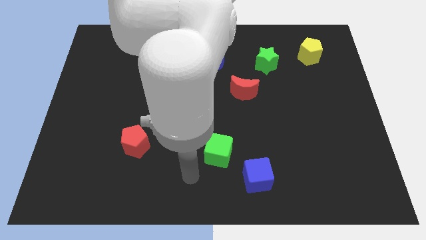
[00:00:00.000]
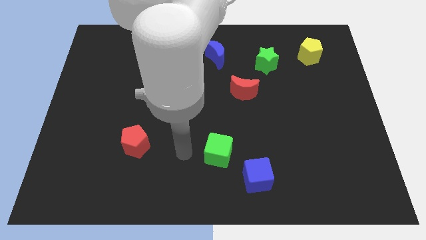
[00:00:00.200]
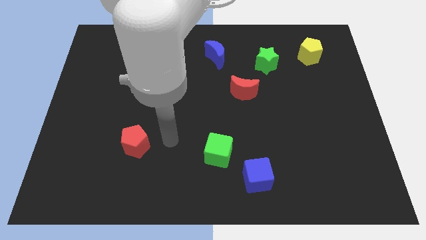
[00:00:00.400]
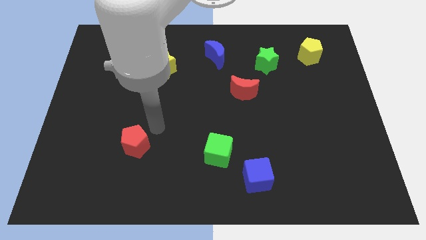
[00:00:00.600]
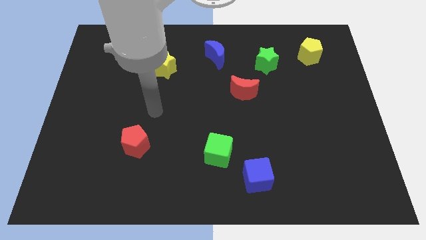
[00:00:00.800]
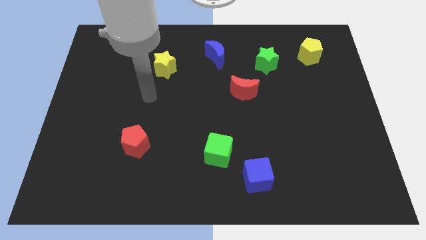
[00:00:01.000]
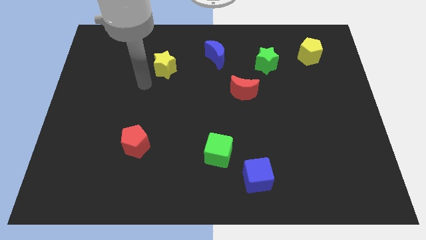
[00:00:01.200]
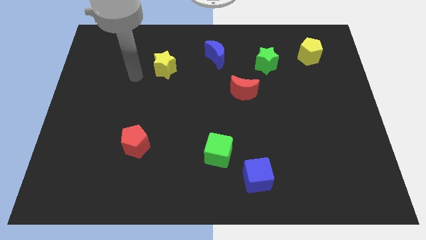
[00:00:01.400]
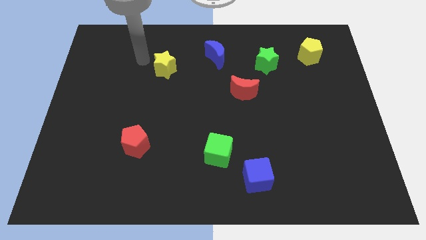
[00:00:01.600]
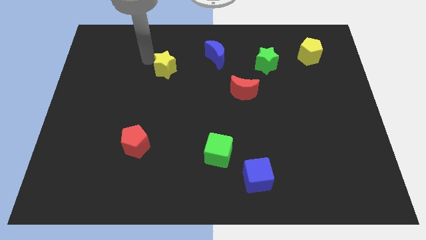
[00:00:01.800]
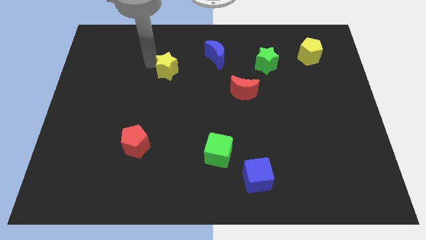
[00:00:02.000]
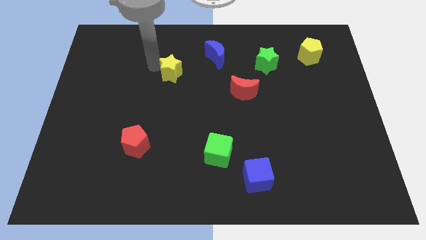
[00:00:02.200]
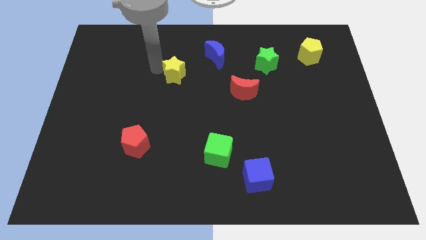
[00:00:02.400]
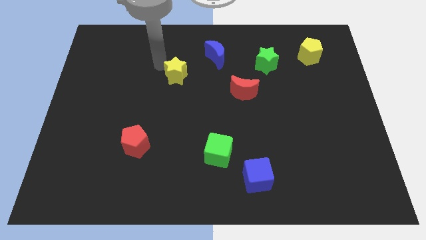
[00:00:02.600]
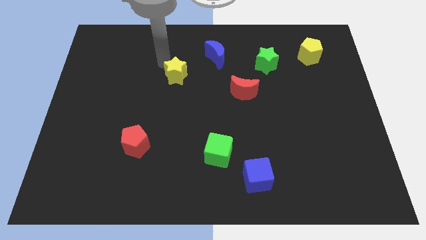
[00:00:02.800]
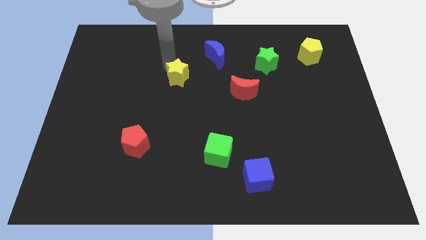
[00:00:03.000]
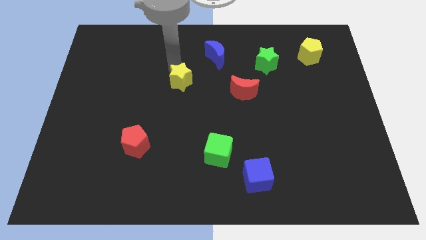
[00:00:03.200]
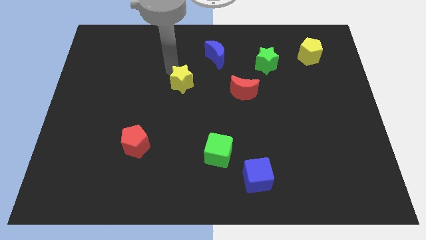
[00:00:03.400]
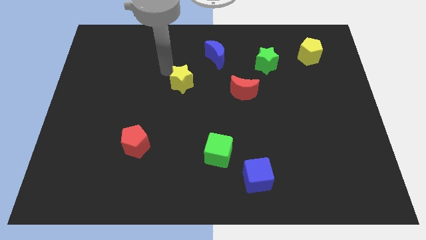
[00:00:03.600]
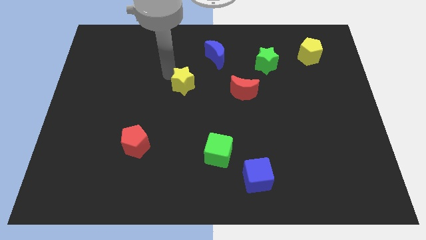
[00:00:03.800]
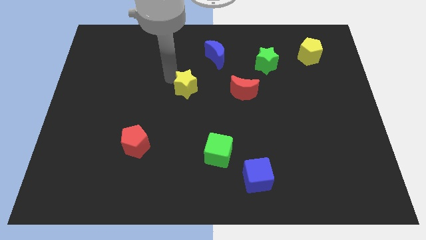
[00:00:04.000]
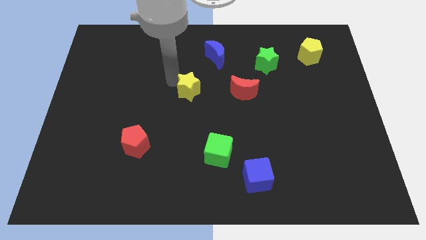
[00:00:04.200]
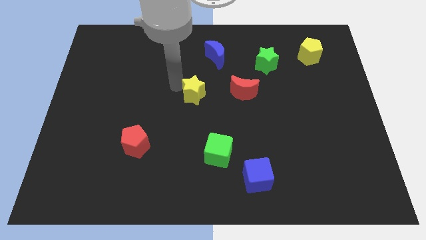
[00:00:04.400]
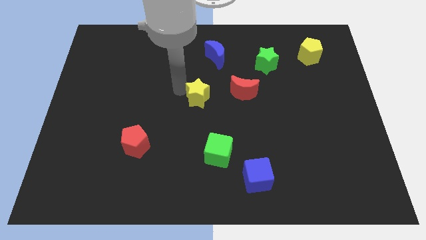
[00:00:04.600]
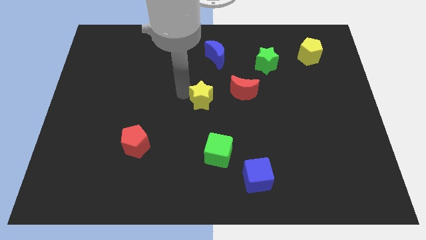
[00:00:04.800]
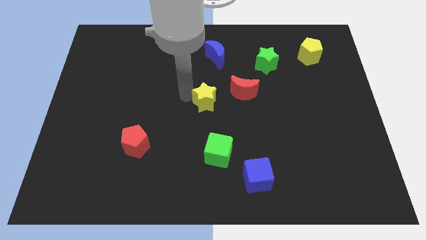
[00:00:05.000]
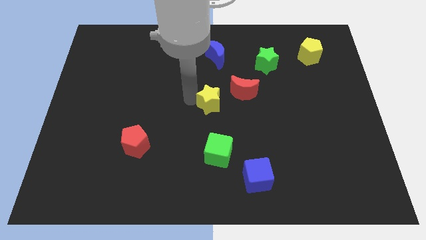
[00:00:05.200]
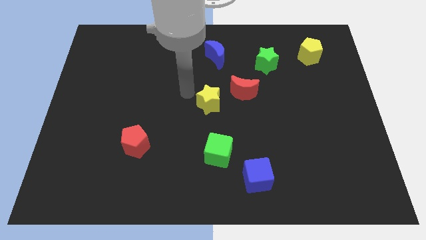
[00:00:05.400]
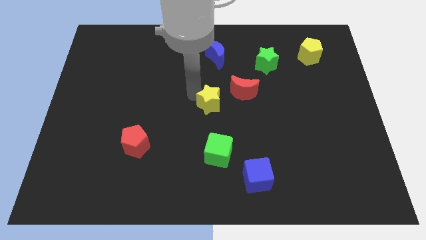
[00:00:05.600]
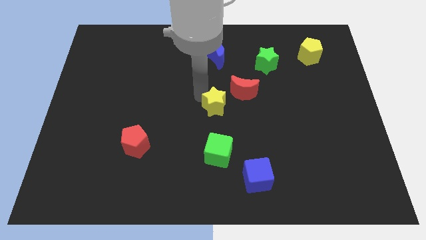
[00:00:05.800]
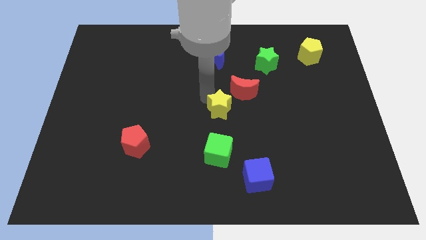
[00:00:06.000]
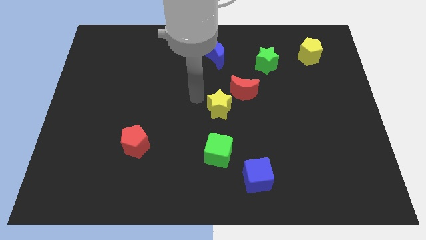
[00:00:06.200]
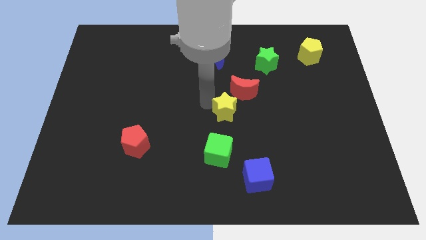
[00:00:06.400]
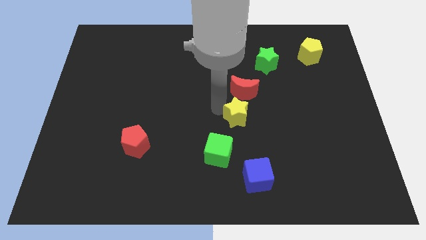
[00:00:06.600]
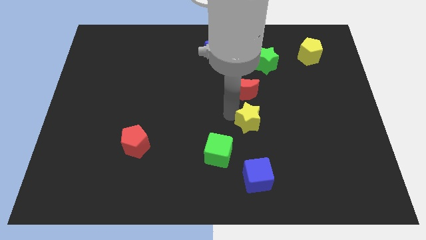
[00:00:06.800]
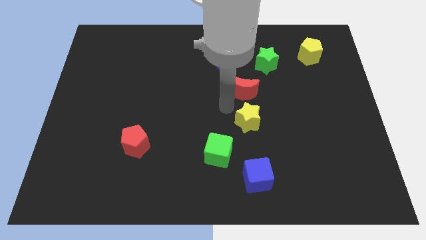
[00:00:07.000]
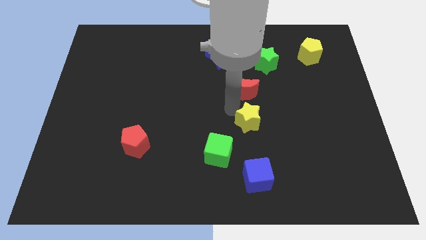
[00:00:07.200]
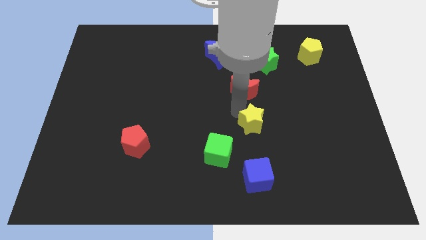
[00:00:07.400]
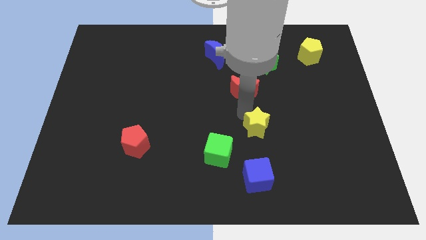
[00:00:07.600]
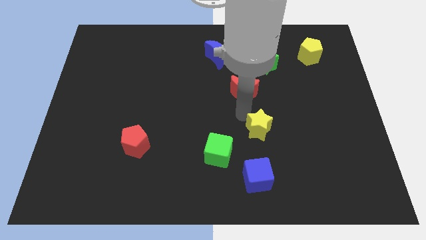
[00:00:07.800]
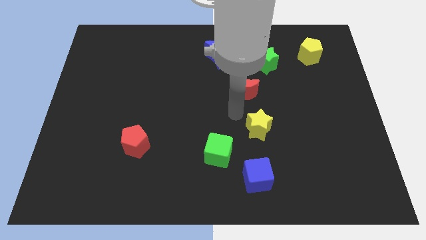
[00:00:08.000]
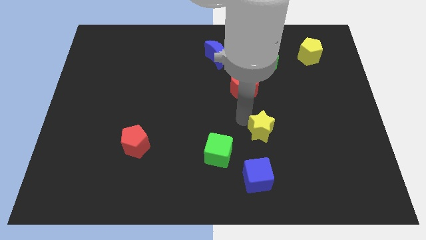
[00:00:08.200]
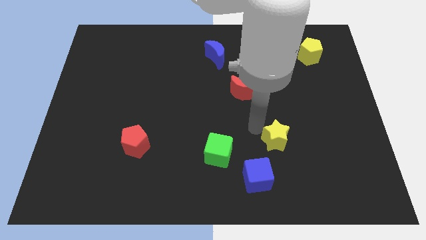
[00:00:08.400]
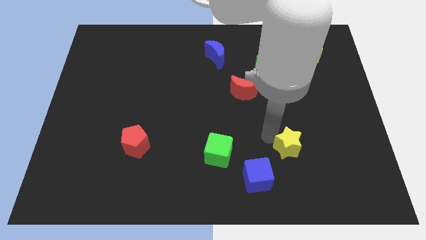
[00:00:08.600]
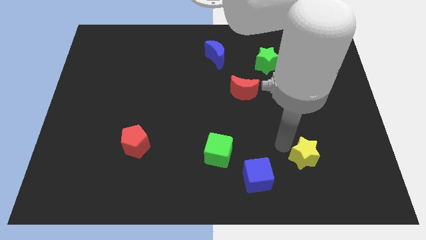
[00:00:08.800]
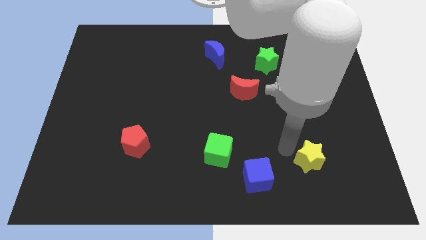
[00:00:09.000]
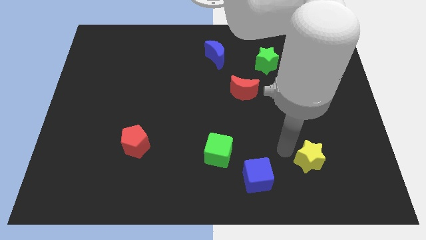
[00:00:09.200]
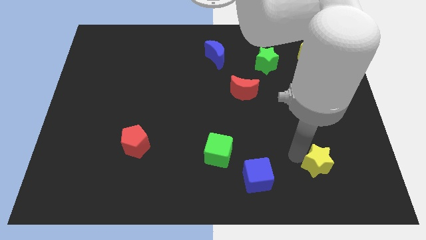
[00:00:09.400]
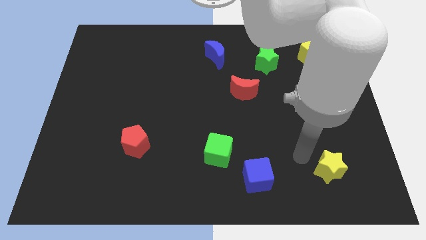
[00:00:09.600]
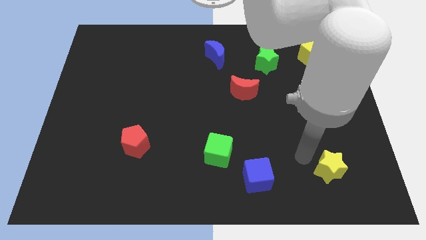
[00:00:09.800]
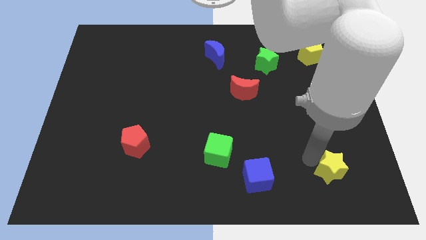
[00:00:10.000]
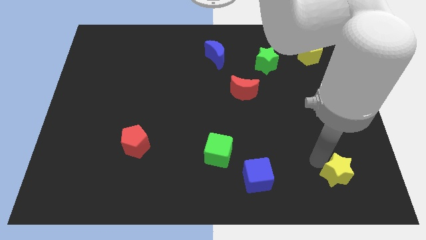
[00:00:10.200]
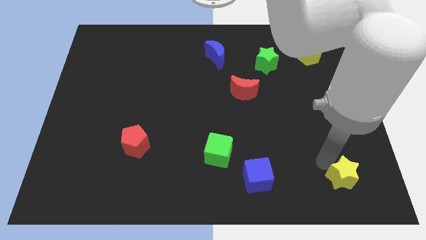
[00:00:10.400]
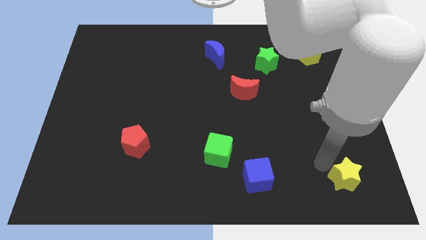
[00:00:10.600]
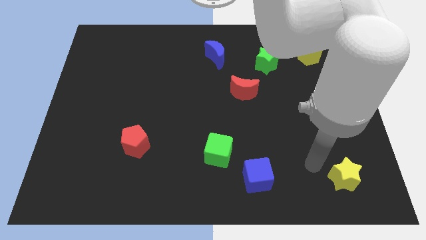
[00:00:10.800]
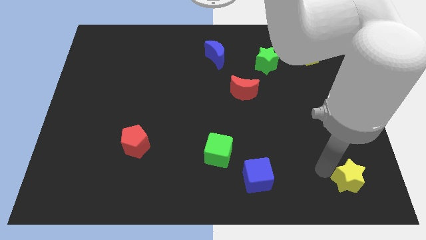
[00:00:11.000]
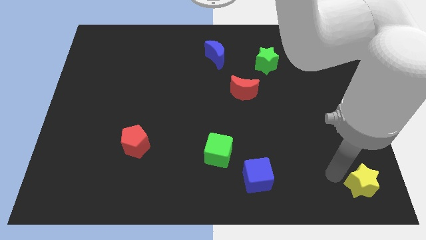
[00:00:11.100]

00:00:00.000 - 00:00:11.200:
put the yellow star to the bottom right corner

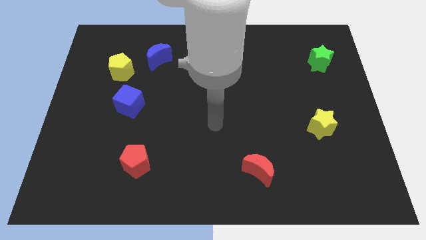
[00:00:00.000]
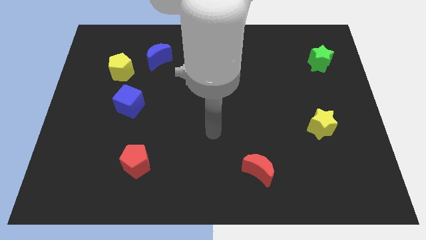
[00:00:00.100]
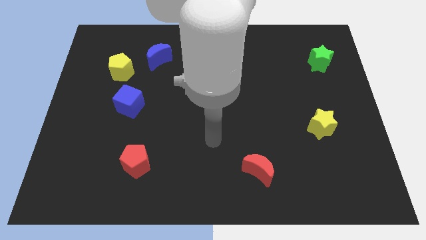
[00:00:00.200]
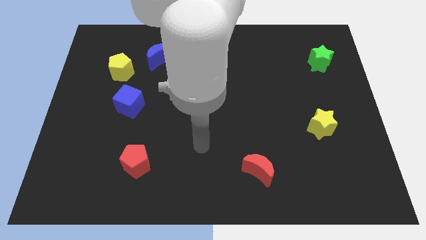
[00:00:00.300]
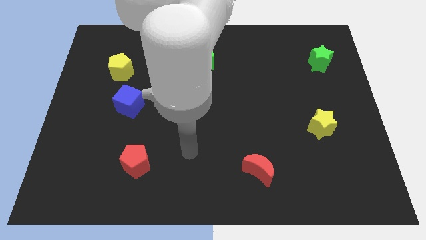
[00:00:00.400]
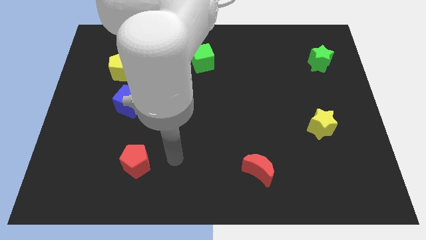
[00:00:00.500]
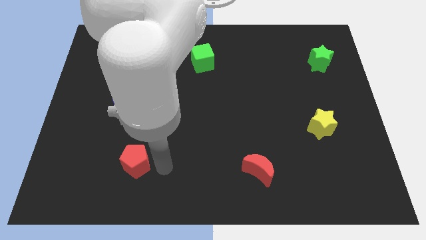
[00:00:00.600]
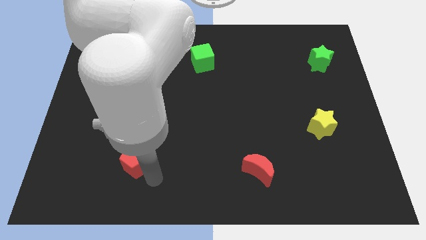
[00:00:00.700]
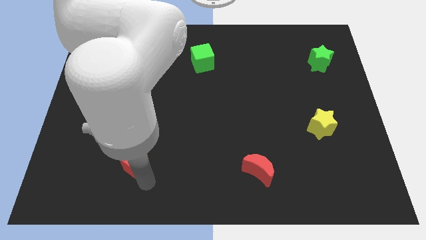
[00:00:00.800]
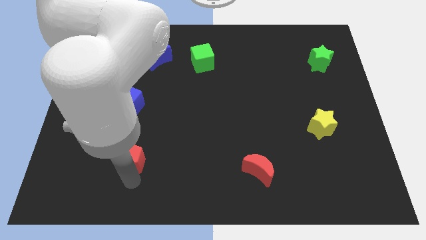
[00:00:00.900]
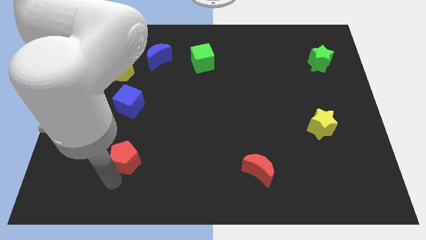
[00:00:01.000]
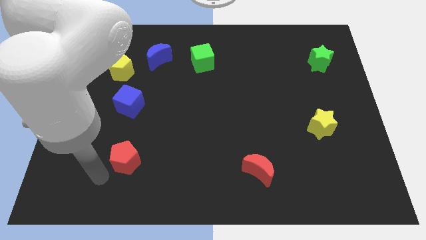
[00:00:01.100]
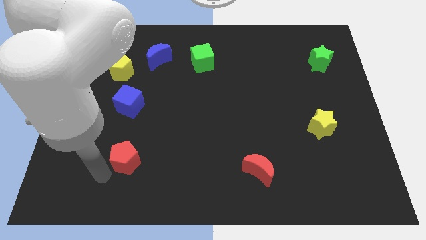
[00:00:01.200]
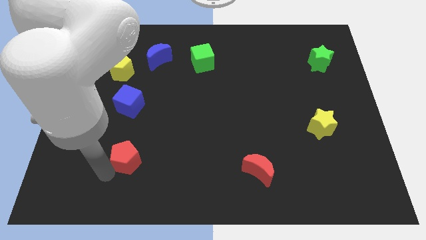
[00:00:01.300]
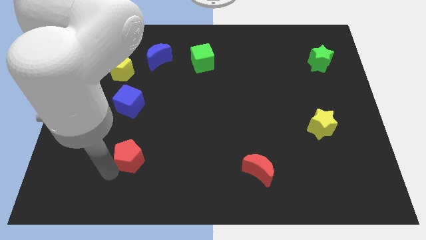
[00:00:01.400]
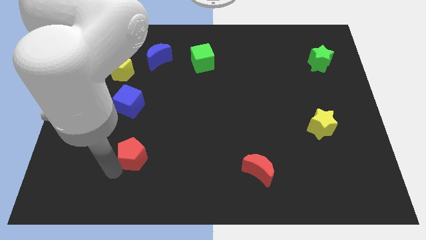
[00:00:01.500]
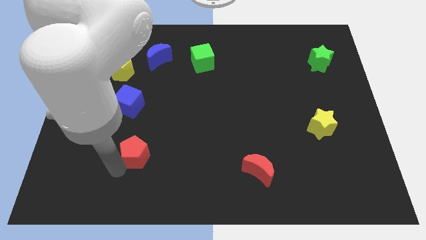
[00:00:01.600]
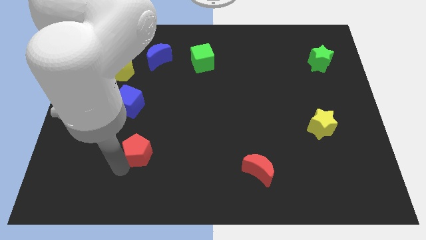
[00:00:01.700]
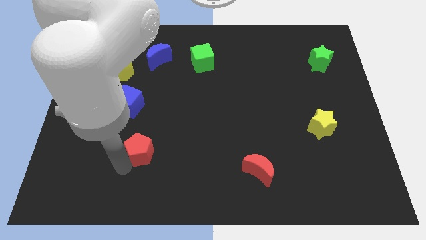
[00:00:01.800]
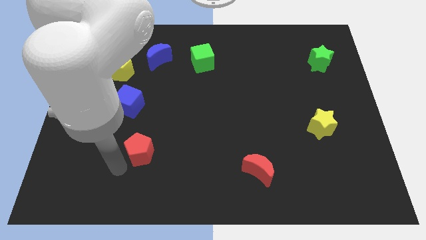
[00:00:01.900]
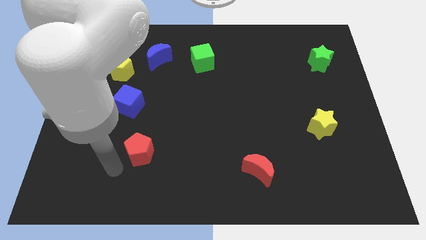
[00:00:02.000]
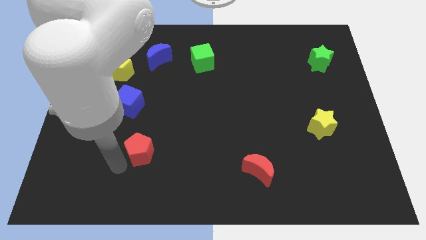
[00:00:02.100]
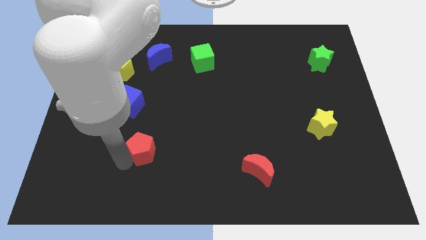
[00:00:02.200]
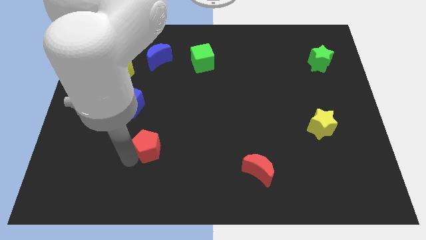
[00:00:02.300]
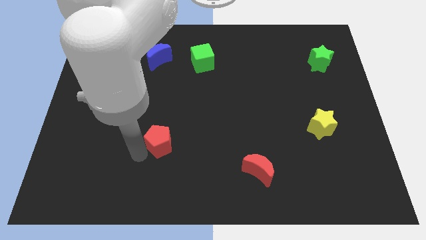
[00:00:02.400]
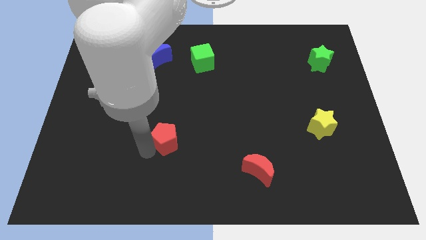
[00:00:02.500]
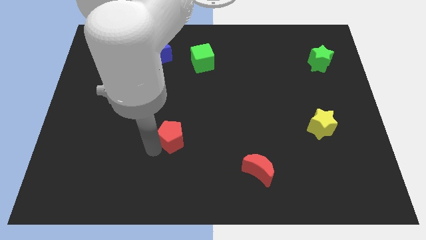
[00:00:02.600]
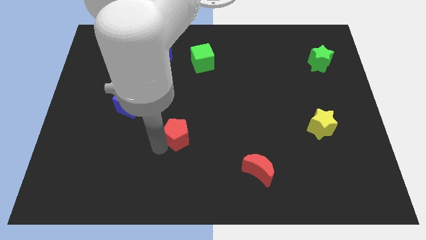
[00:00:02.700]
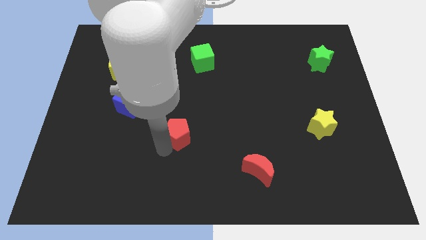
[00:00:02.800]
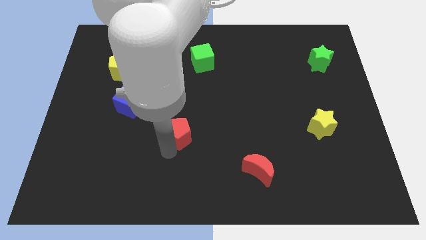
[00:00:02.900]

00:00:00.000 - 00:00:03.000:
put the red pentagon to the middle of the board
